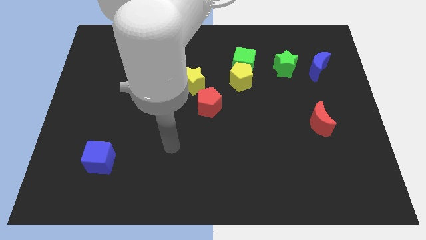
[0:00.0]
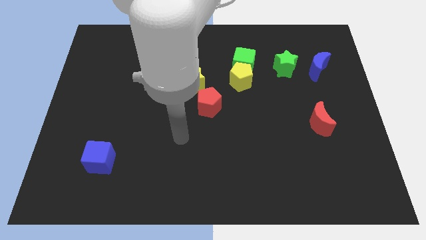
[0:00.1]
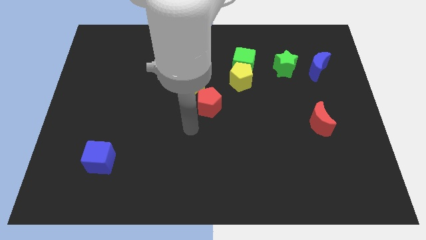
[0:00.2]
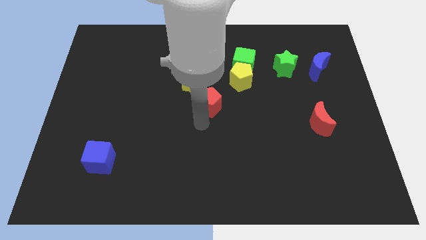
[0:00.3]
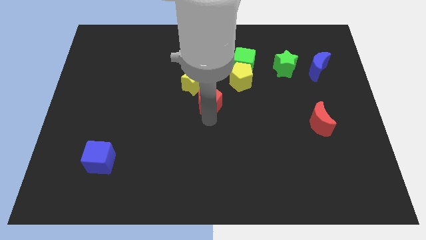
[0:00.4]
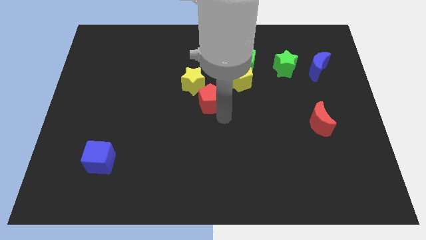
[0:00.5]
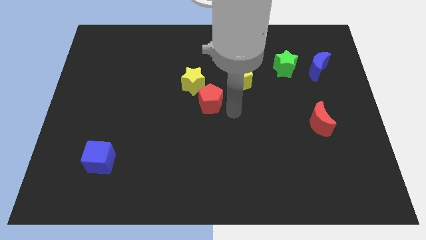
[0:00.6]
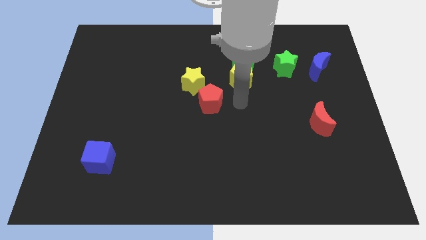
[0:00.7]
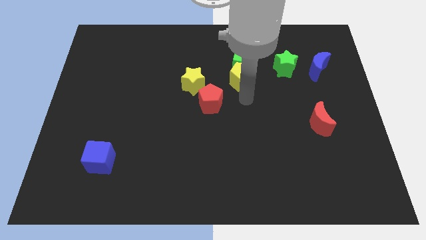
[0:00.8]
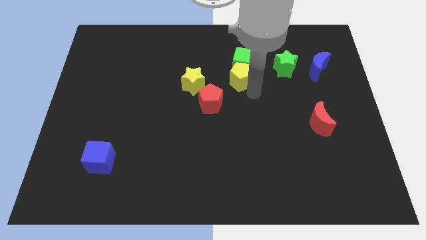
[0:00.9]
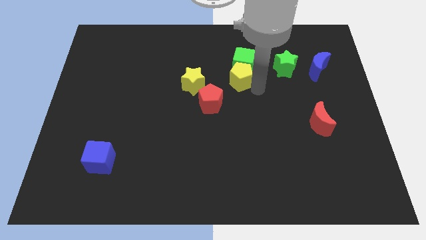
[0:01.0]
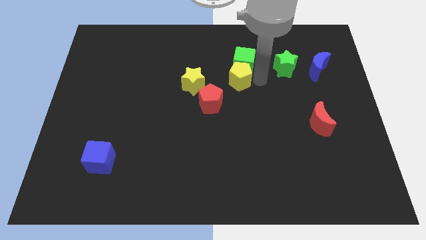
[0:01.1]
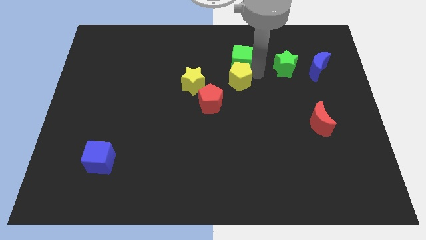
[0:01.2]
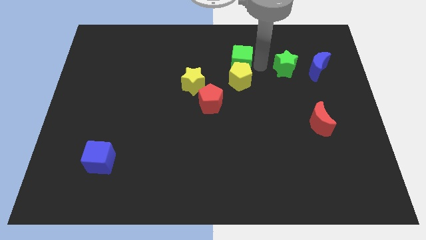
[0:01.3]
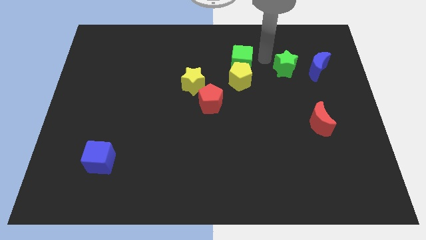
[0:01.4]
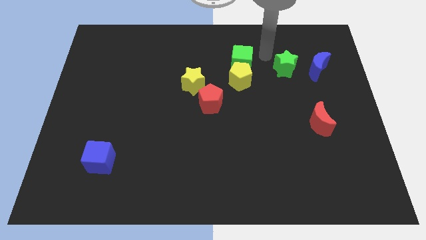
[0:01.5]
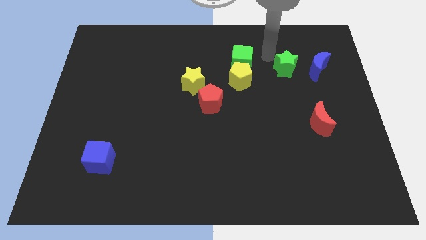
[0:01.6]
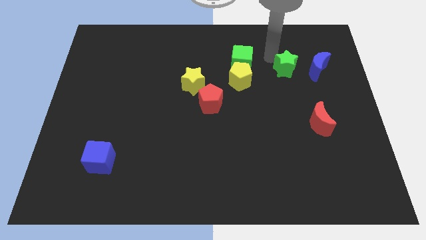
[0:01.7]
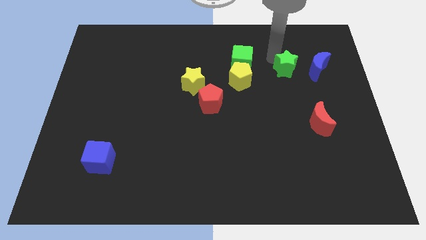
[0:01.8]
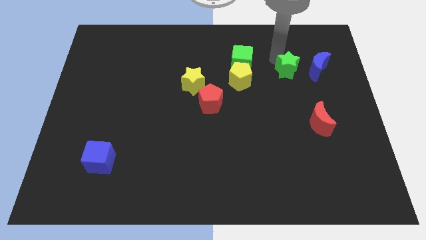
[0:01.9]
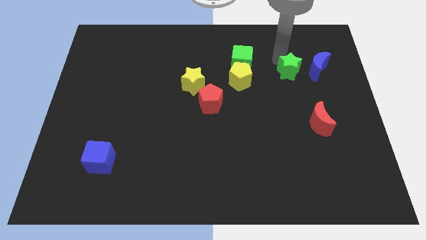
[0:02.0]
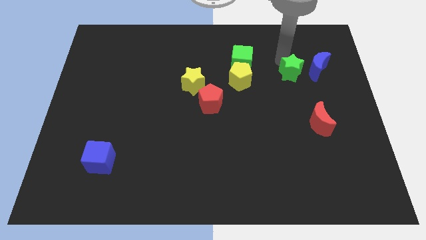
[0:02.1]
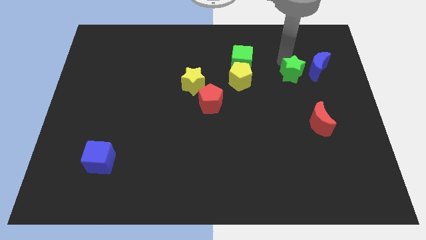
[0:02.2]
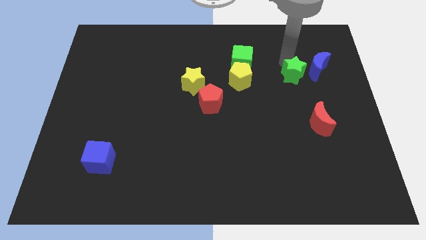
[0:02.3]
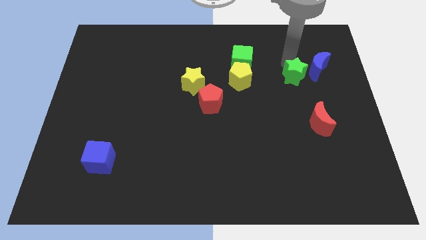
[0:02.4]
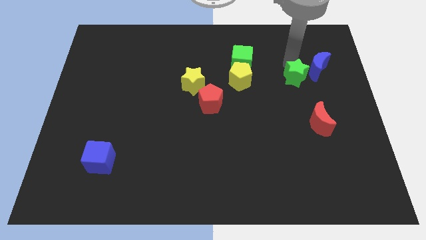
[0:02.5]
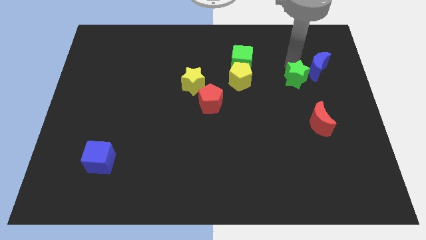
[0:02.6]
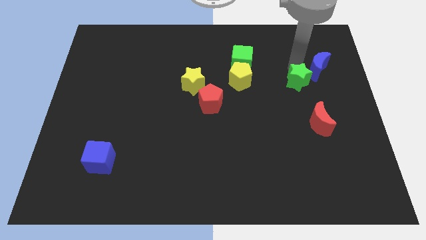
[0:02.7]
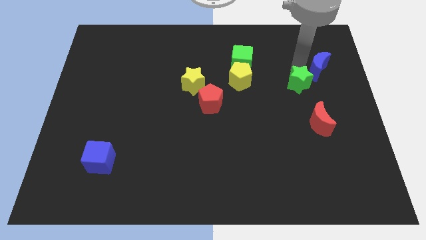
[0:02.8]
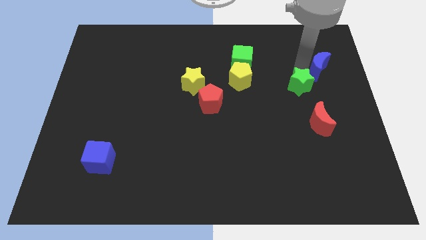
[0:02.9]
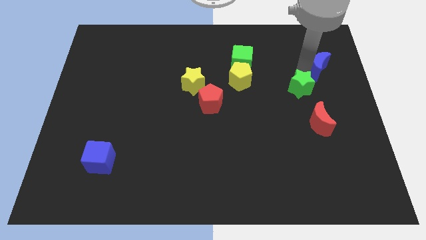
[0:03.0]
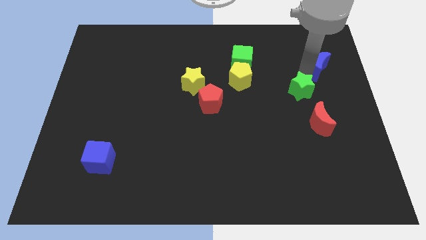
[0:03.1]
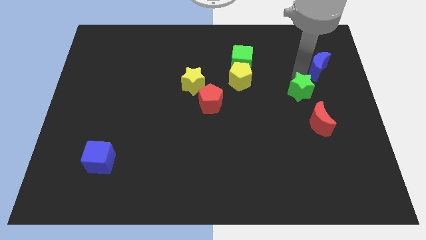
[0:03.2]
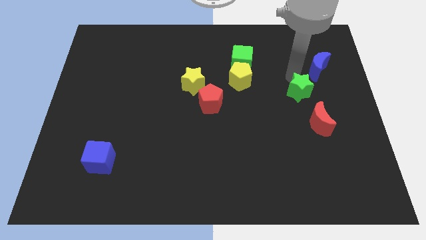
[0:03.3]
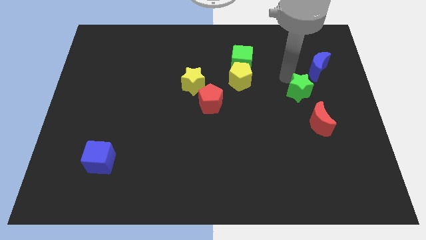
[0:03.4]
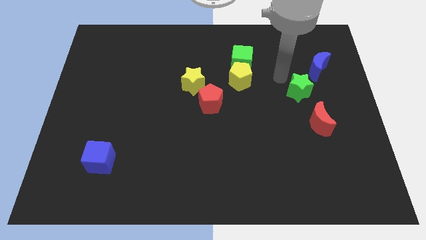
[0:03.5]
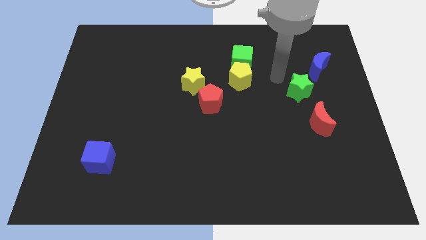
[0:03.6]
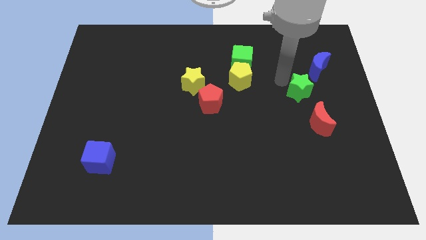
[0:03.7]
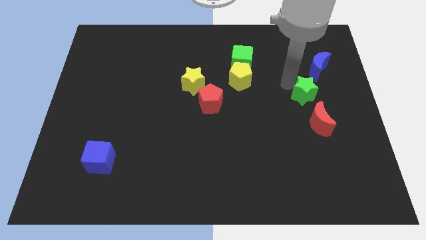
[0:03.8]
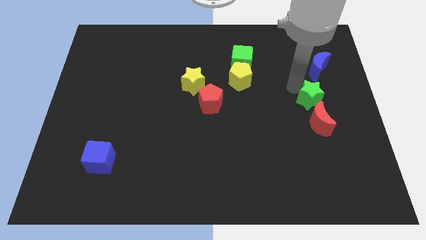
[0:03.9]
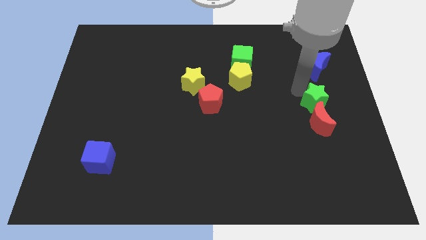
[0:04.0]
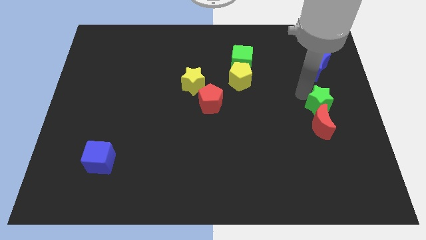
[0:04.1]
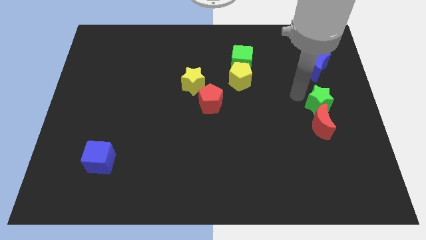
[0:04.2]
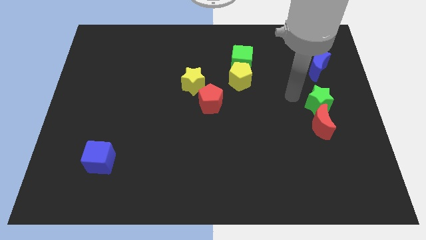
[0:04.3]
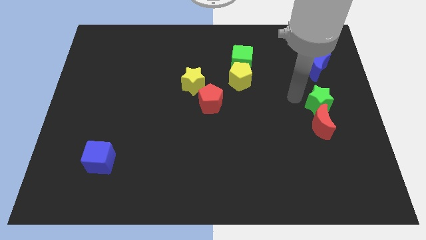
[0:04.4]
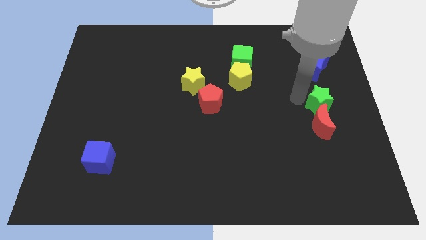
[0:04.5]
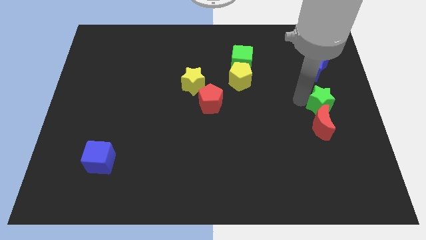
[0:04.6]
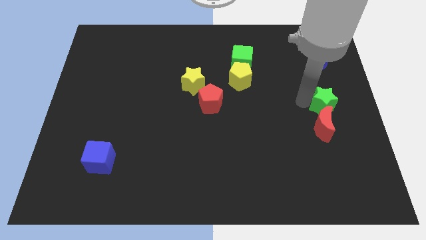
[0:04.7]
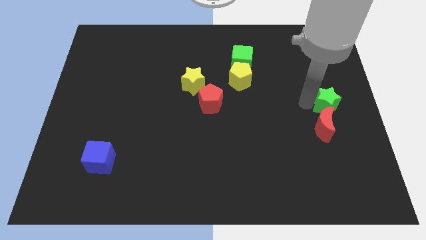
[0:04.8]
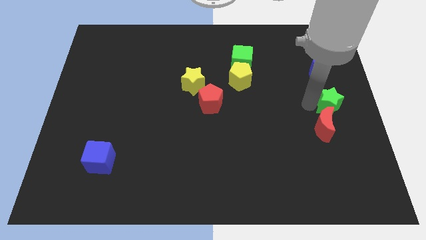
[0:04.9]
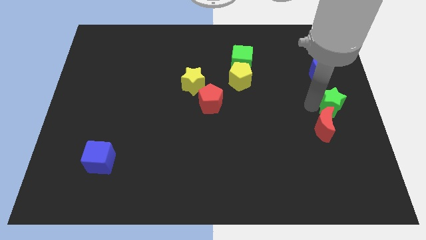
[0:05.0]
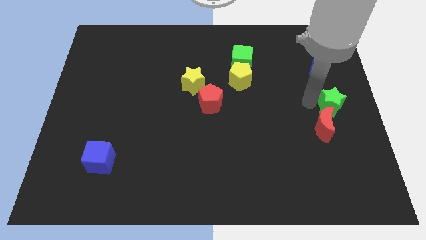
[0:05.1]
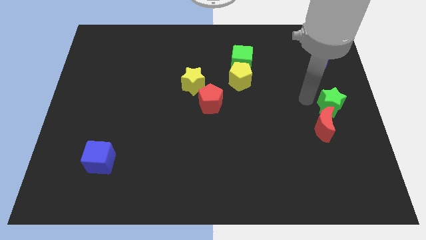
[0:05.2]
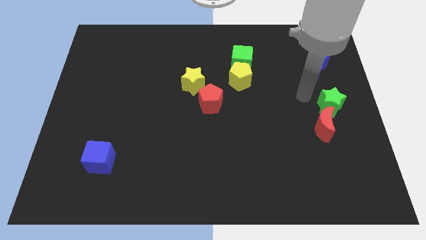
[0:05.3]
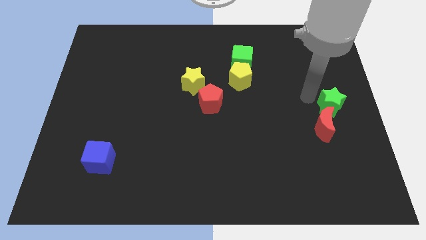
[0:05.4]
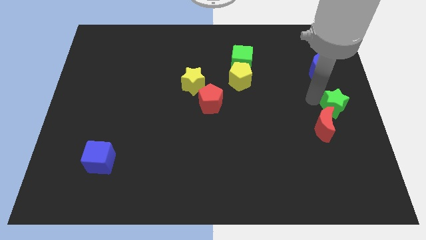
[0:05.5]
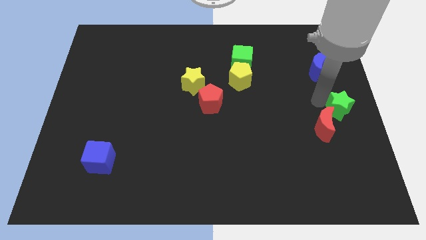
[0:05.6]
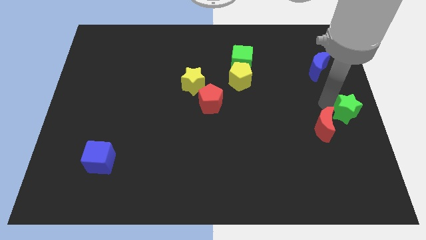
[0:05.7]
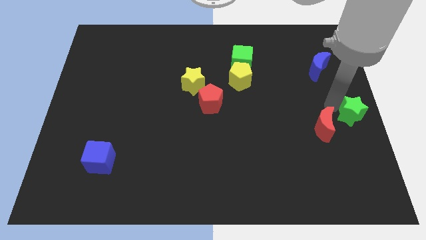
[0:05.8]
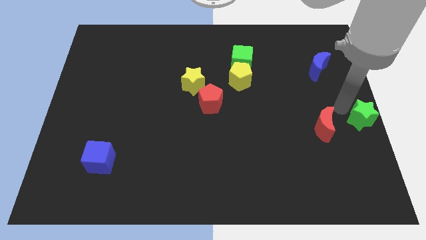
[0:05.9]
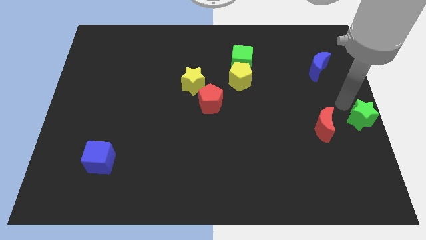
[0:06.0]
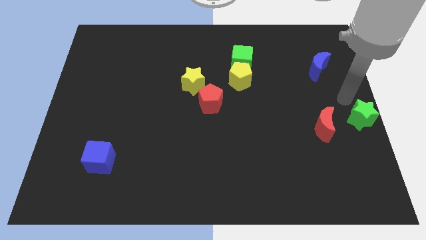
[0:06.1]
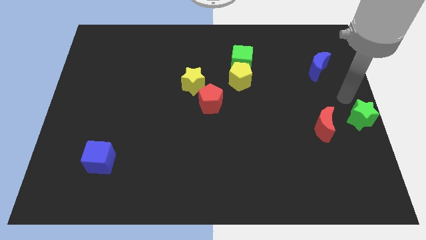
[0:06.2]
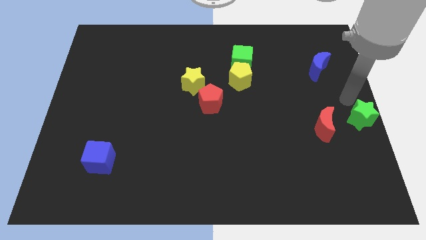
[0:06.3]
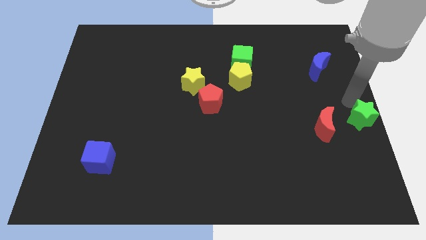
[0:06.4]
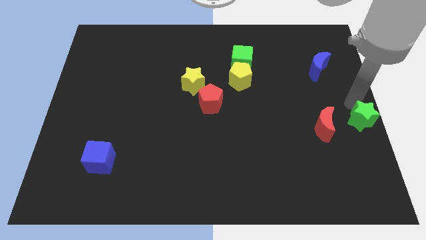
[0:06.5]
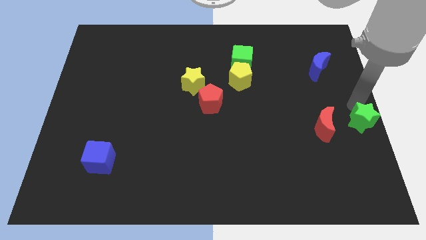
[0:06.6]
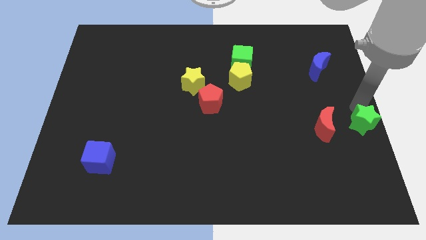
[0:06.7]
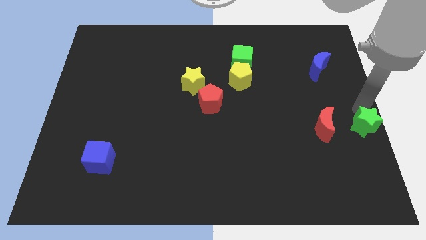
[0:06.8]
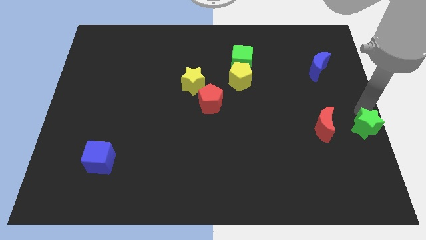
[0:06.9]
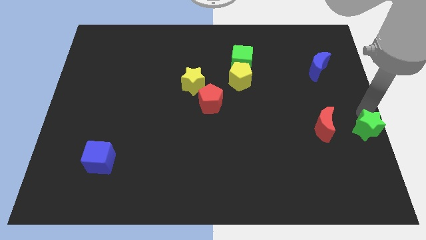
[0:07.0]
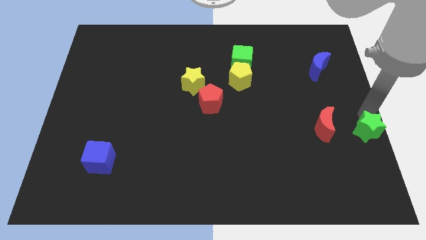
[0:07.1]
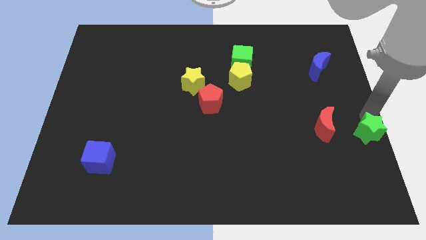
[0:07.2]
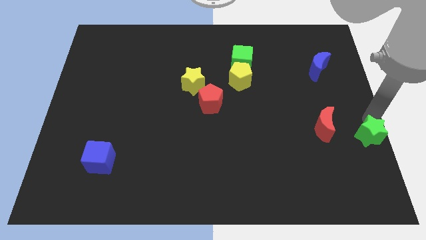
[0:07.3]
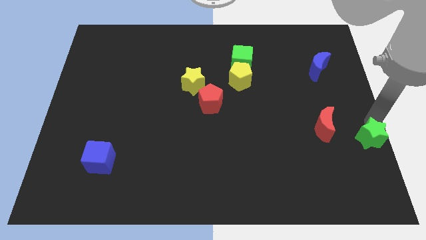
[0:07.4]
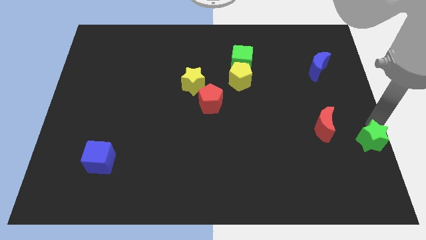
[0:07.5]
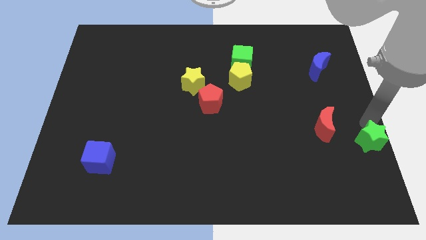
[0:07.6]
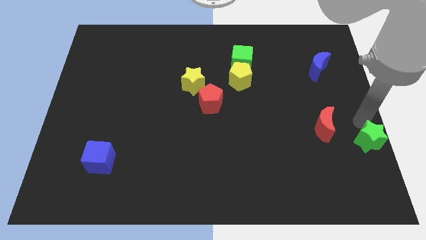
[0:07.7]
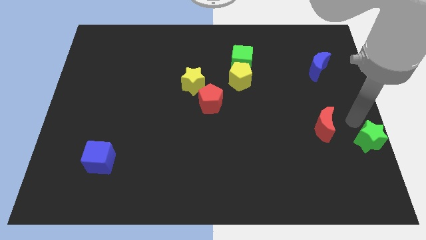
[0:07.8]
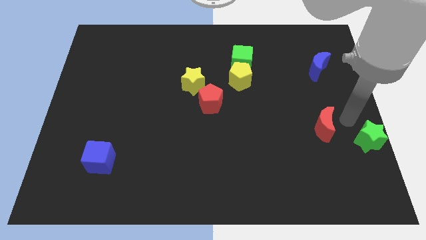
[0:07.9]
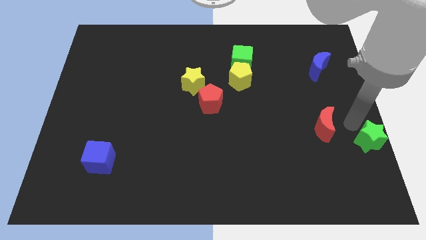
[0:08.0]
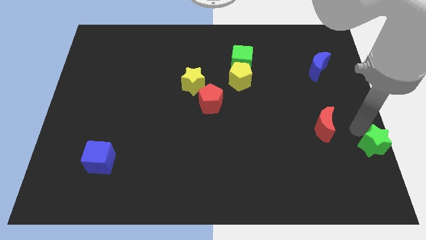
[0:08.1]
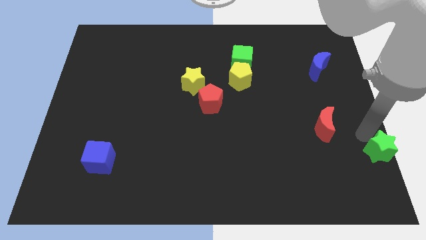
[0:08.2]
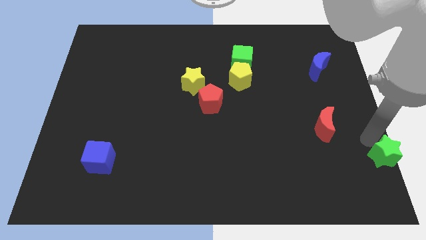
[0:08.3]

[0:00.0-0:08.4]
slide the green star to the bottom right of the board
